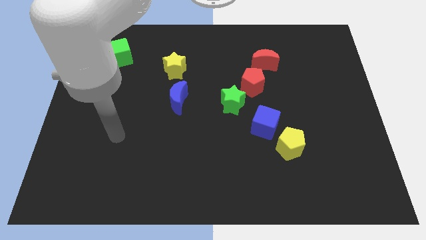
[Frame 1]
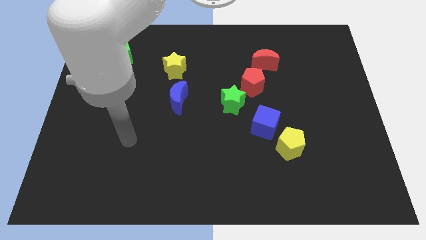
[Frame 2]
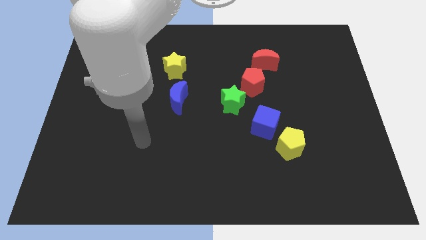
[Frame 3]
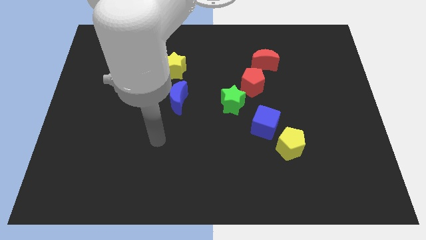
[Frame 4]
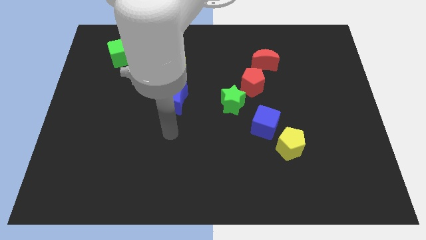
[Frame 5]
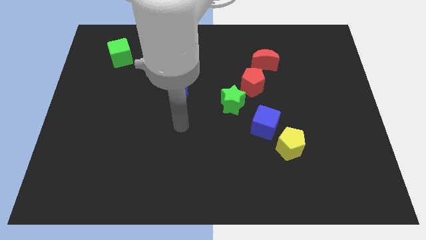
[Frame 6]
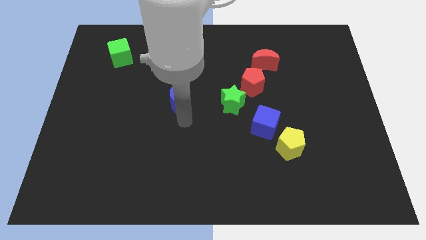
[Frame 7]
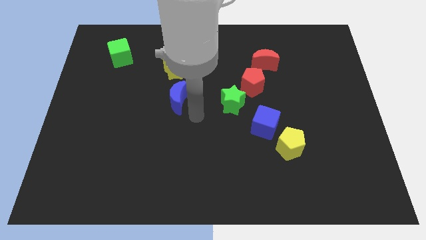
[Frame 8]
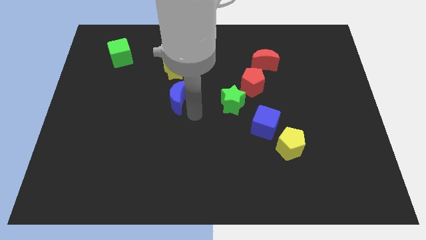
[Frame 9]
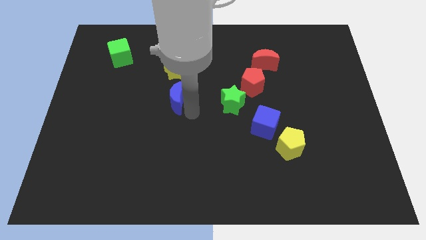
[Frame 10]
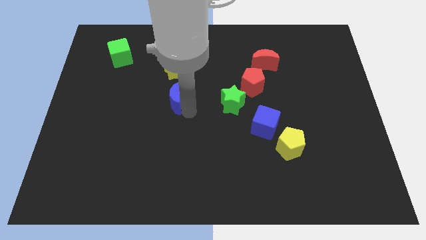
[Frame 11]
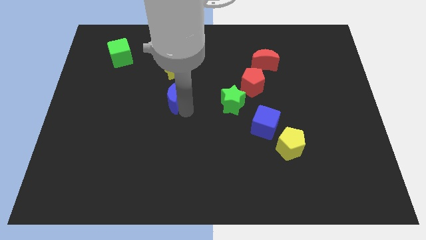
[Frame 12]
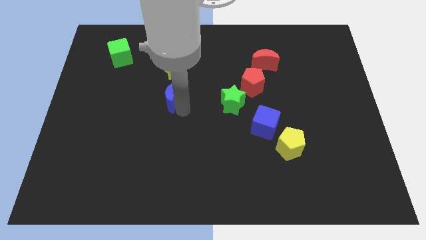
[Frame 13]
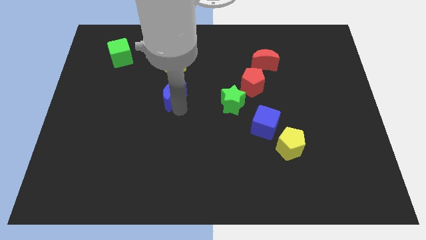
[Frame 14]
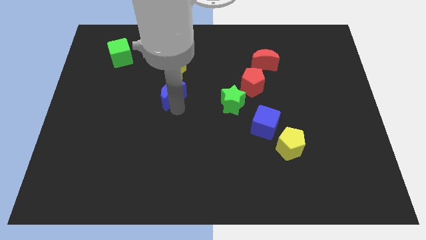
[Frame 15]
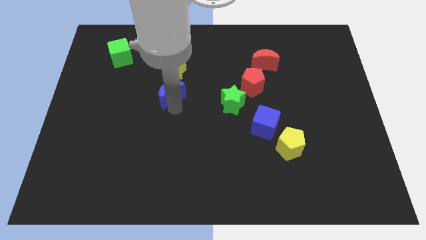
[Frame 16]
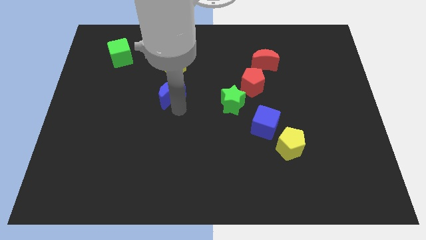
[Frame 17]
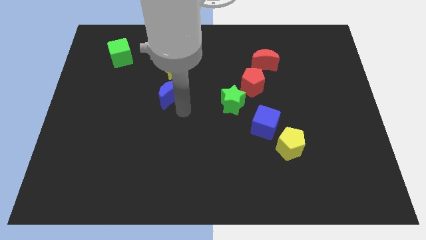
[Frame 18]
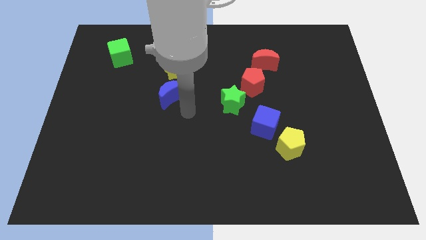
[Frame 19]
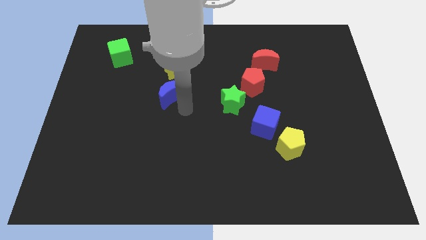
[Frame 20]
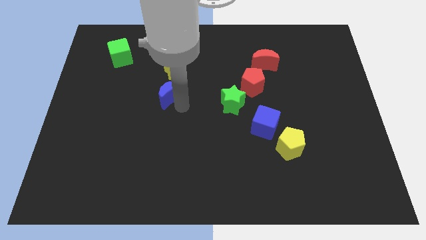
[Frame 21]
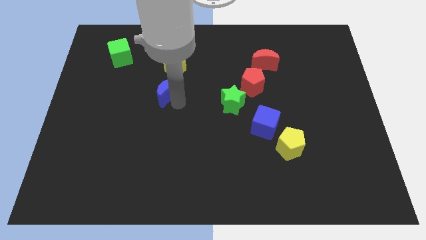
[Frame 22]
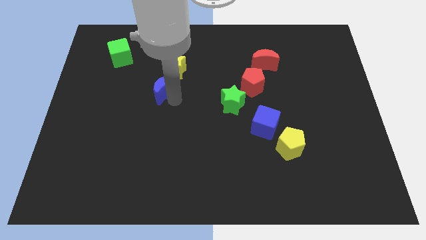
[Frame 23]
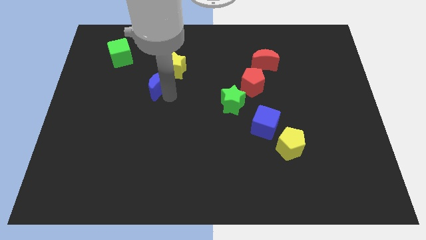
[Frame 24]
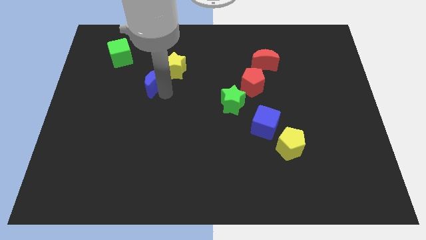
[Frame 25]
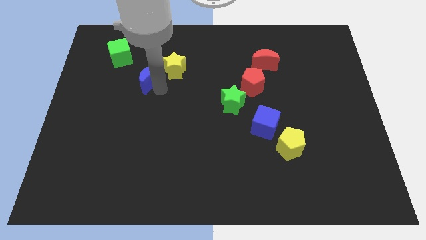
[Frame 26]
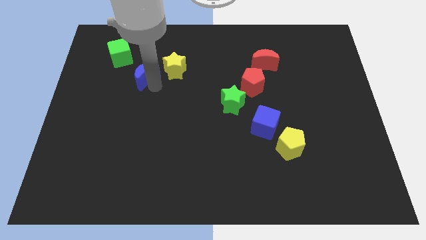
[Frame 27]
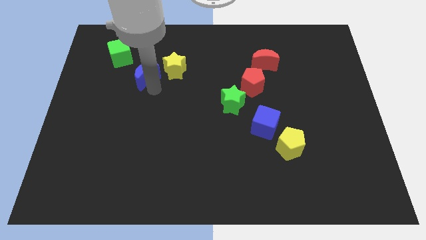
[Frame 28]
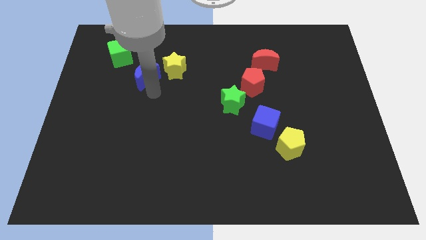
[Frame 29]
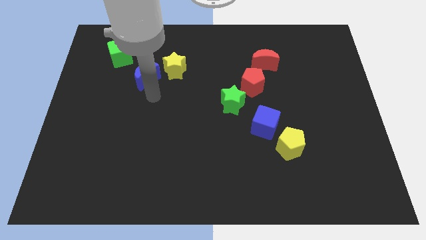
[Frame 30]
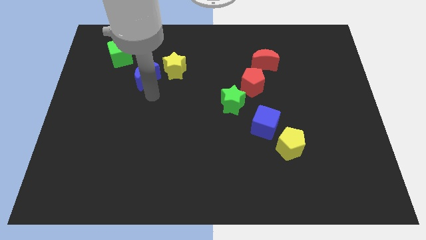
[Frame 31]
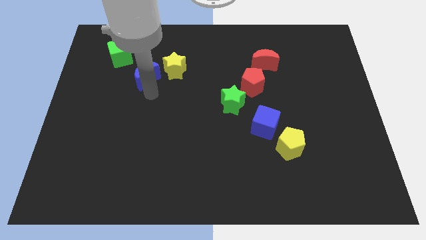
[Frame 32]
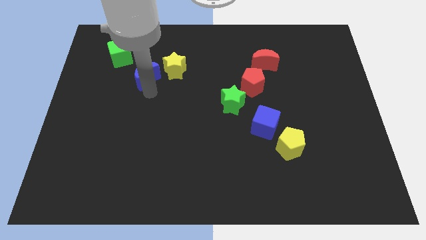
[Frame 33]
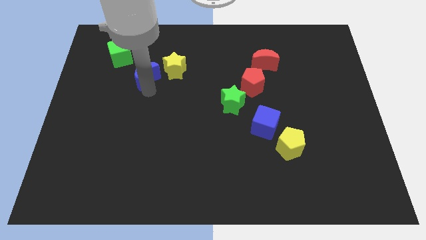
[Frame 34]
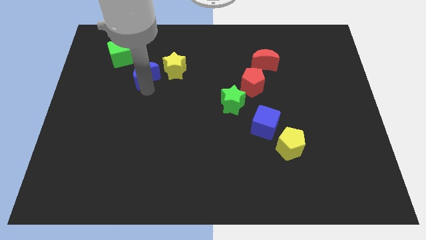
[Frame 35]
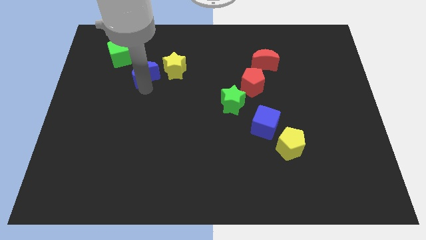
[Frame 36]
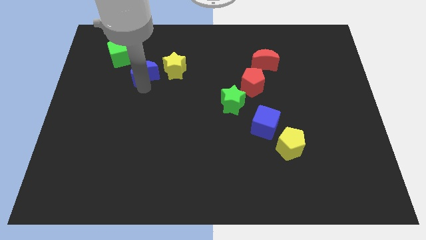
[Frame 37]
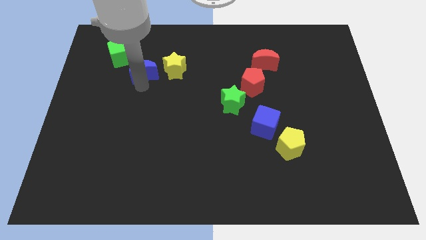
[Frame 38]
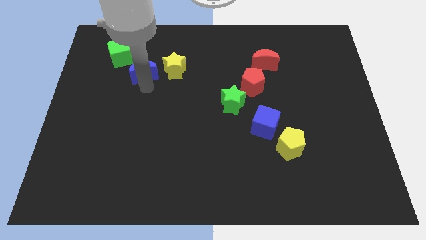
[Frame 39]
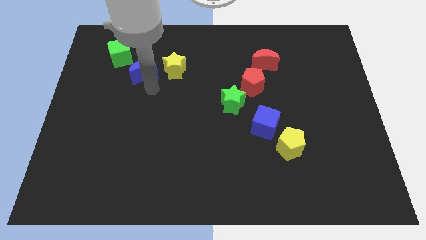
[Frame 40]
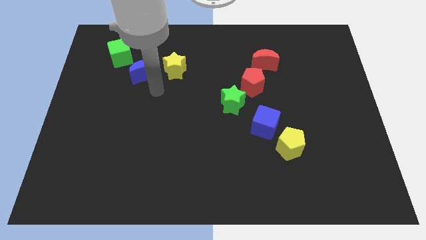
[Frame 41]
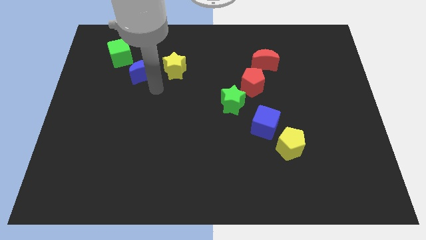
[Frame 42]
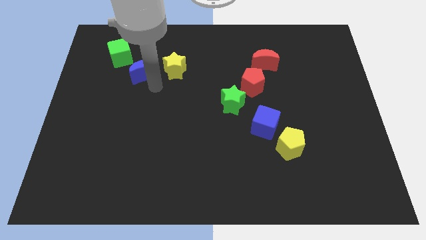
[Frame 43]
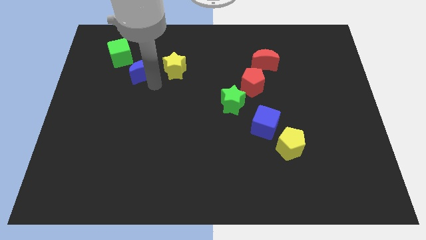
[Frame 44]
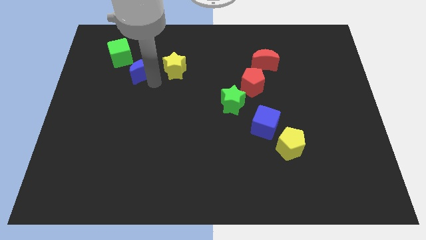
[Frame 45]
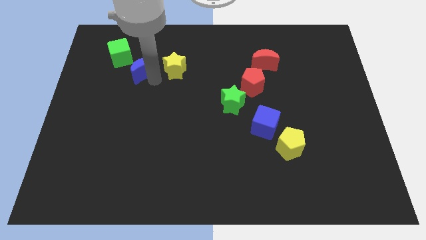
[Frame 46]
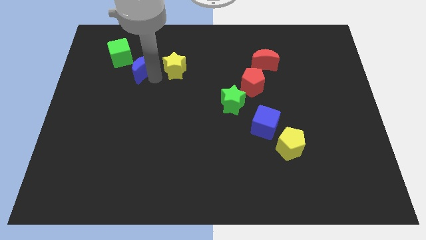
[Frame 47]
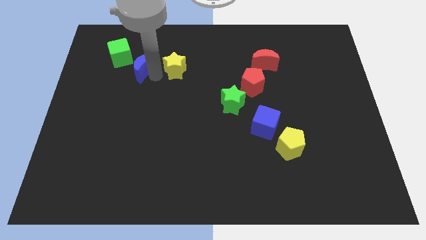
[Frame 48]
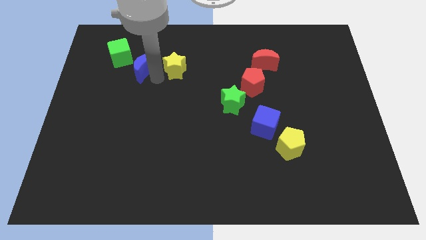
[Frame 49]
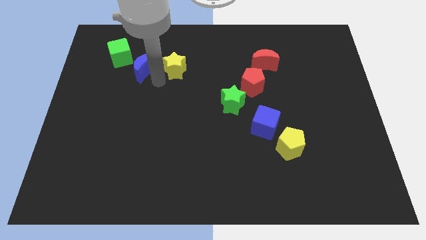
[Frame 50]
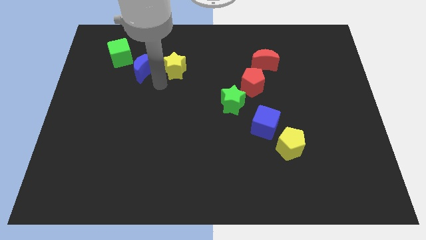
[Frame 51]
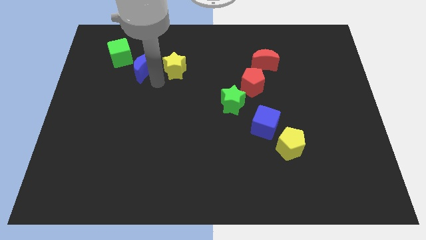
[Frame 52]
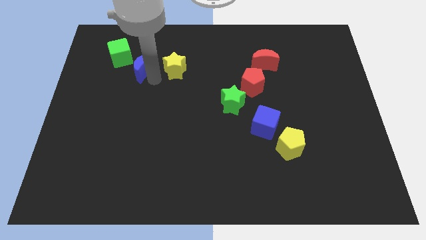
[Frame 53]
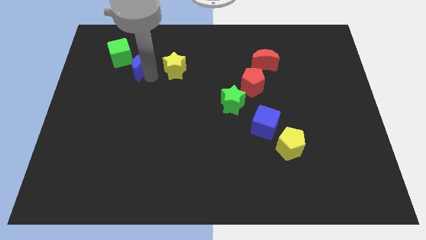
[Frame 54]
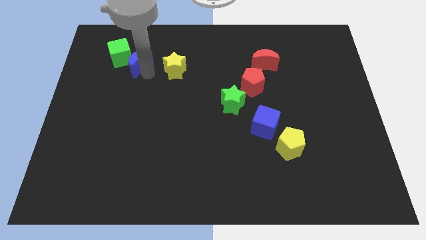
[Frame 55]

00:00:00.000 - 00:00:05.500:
move the blue moon to the green cube

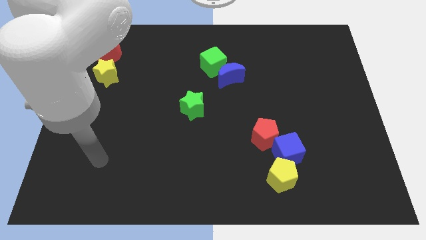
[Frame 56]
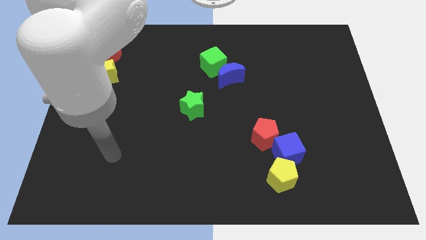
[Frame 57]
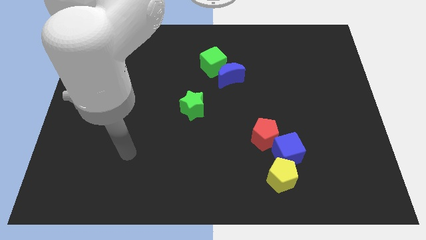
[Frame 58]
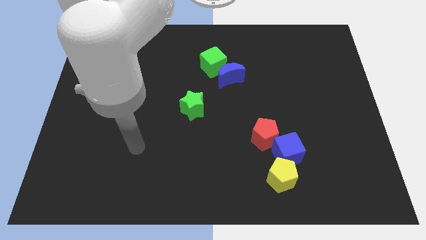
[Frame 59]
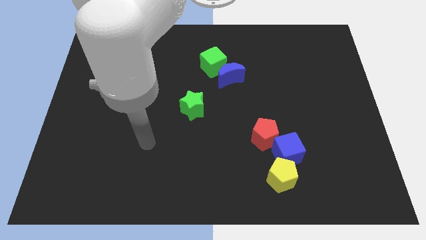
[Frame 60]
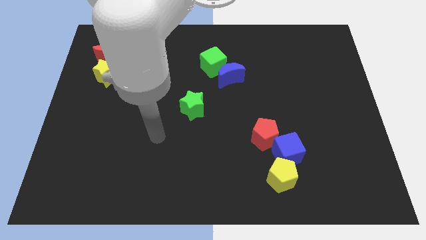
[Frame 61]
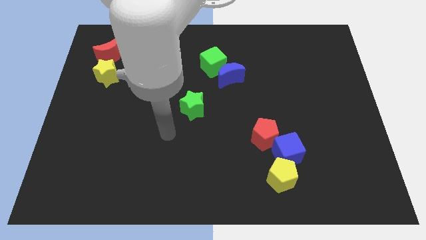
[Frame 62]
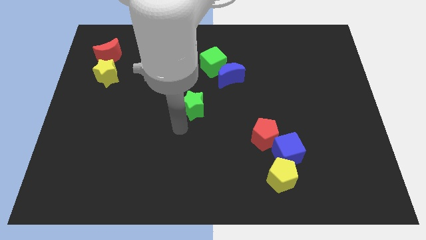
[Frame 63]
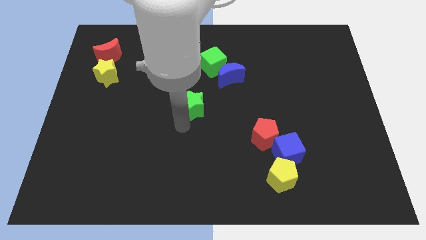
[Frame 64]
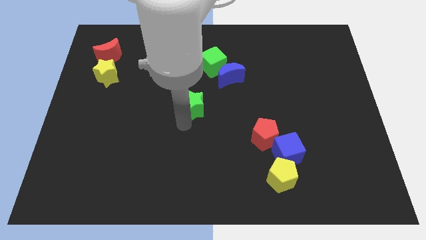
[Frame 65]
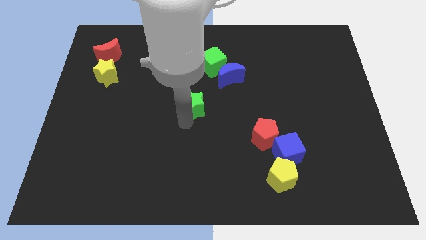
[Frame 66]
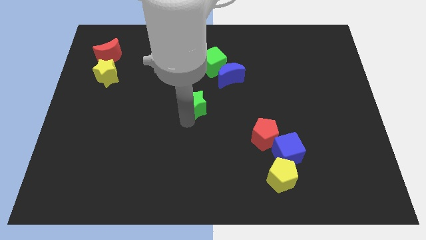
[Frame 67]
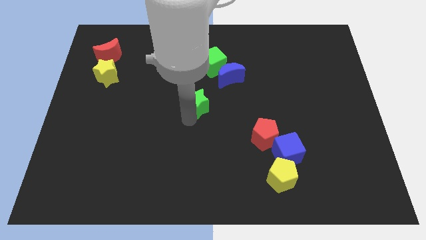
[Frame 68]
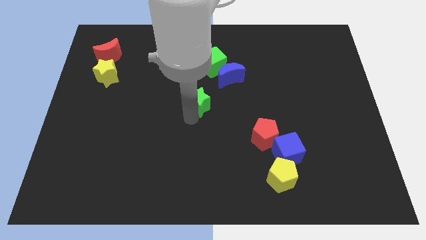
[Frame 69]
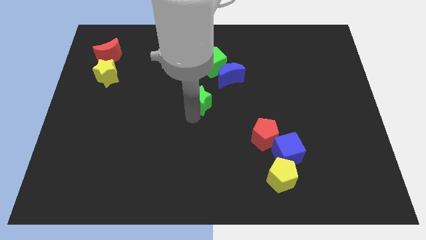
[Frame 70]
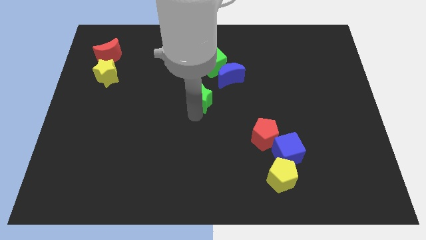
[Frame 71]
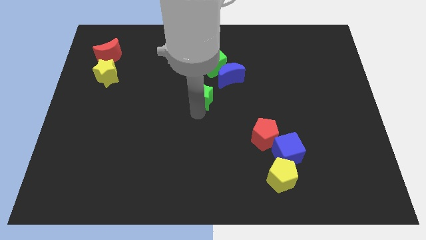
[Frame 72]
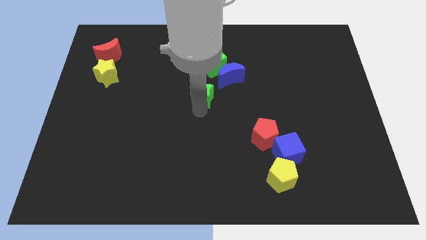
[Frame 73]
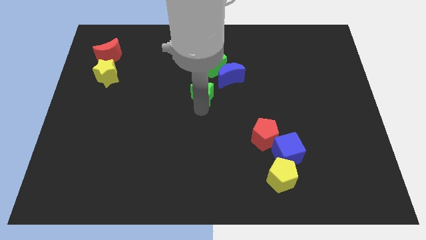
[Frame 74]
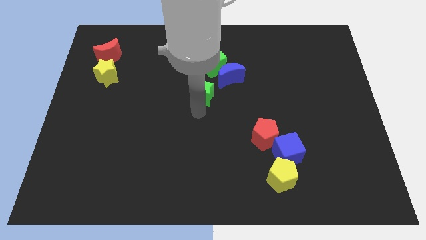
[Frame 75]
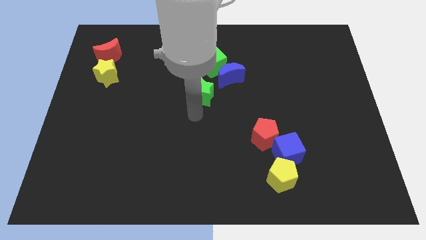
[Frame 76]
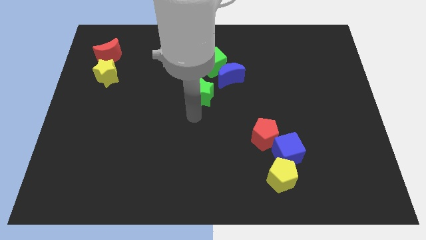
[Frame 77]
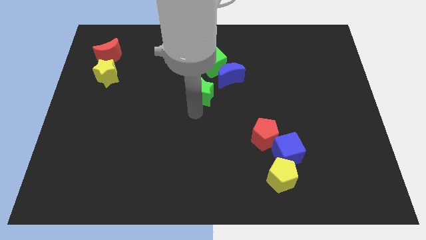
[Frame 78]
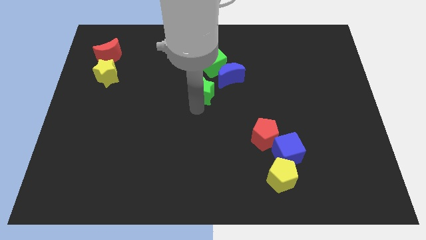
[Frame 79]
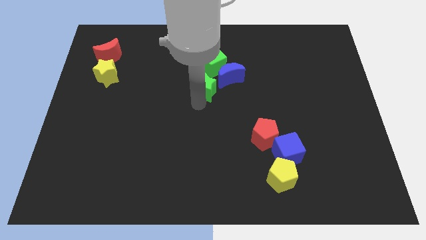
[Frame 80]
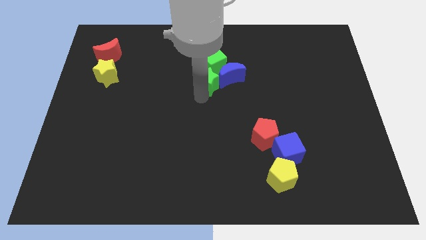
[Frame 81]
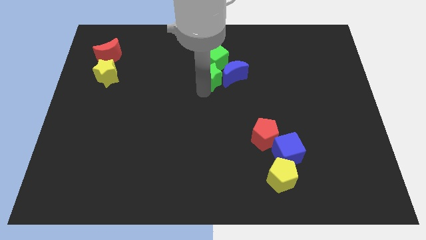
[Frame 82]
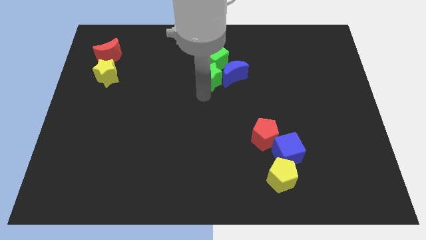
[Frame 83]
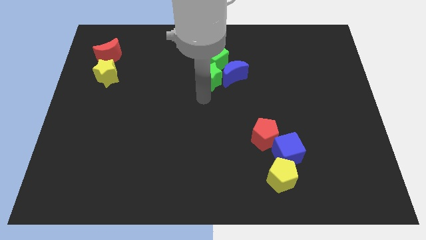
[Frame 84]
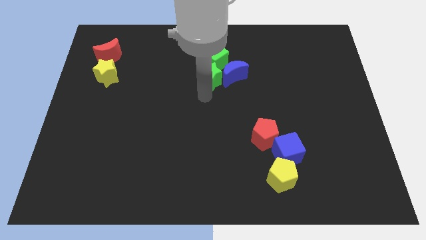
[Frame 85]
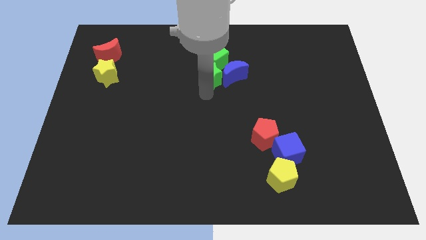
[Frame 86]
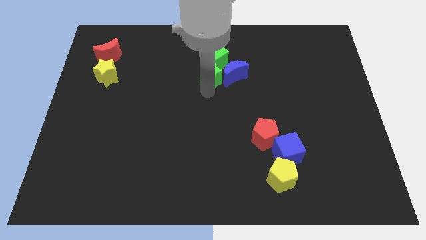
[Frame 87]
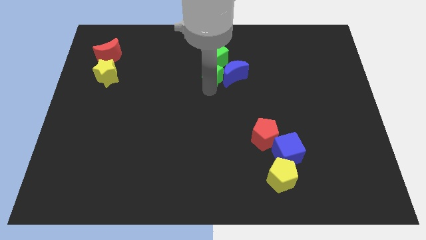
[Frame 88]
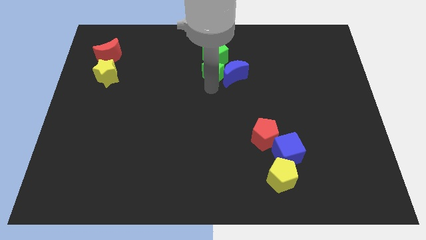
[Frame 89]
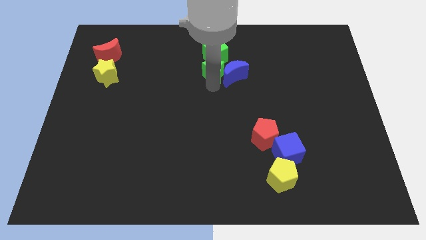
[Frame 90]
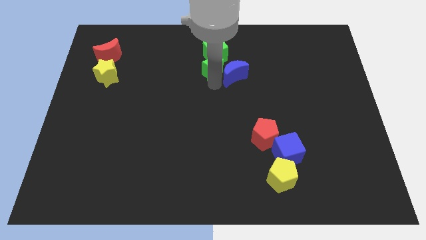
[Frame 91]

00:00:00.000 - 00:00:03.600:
move the green star to the green cube
